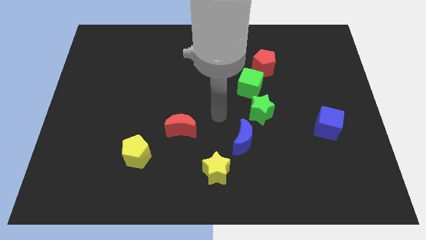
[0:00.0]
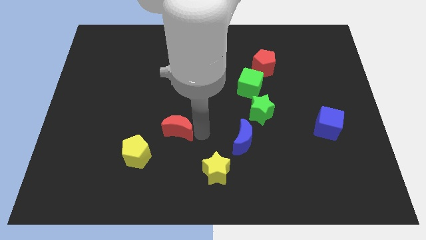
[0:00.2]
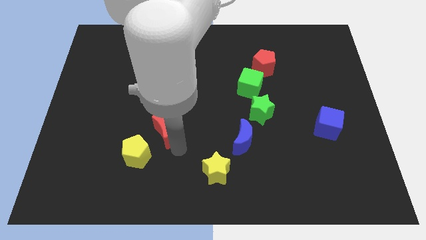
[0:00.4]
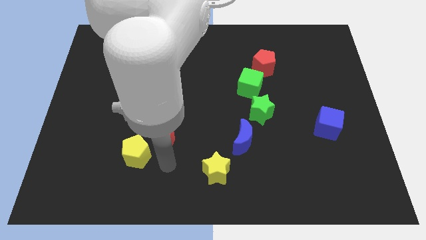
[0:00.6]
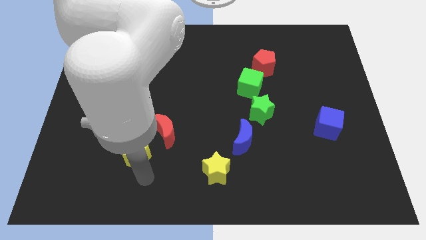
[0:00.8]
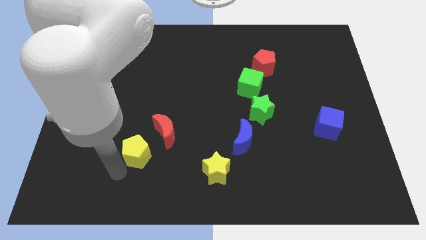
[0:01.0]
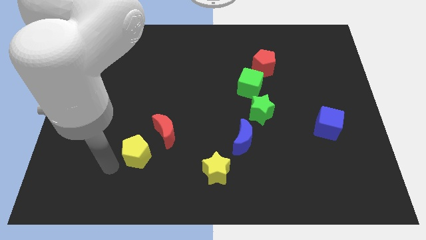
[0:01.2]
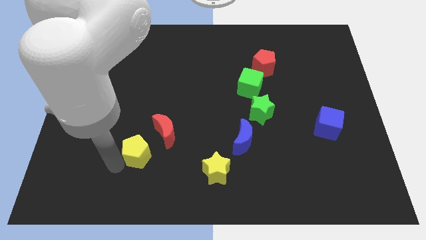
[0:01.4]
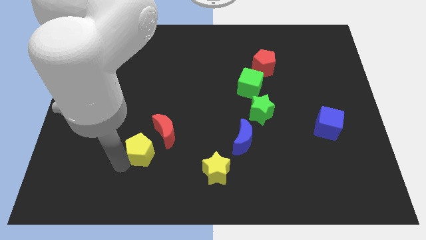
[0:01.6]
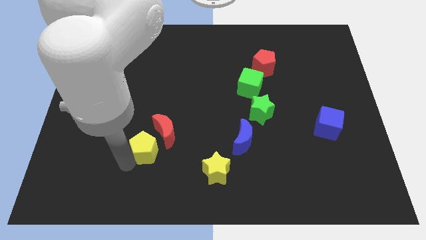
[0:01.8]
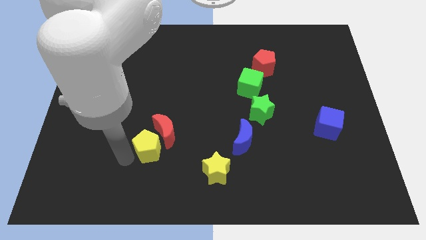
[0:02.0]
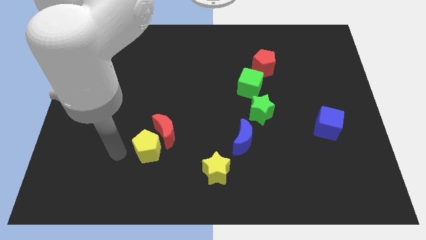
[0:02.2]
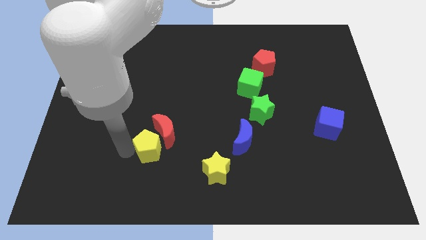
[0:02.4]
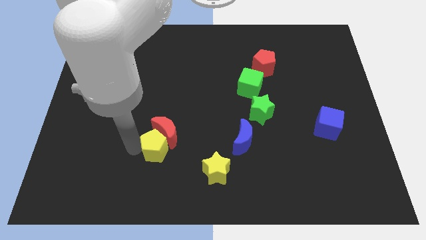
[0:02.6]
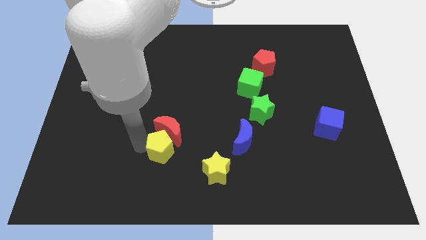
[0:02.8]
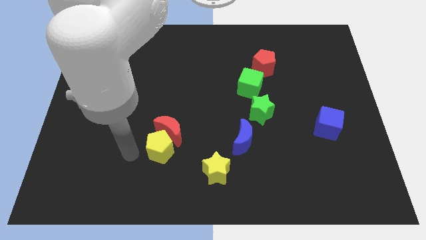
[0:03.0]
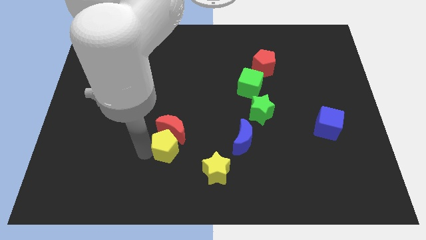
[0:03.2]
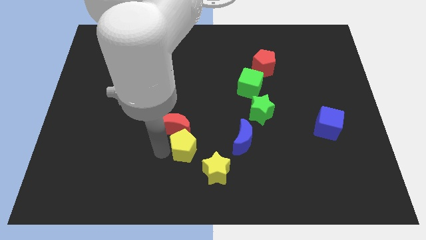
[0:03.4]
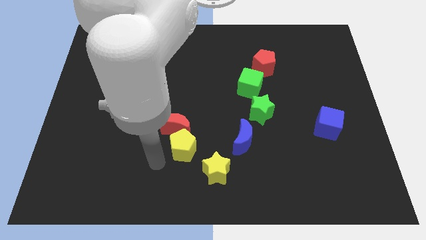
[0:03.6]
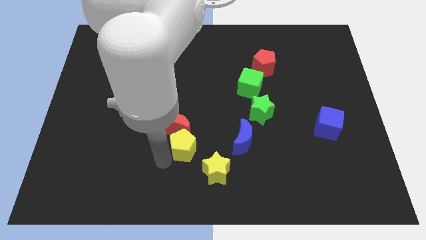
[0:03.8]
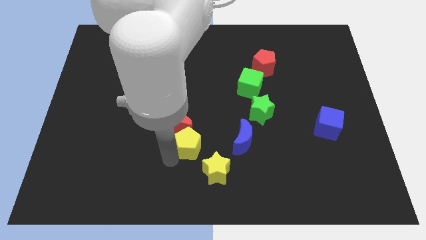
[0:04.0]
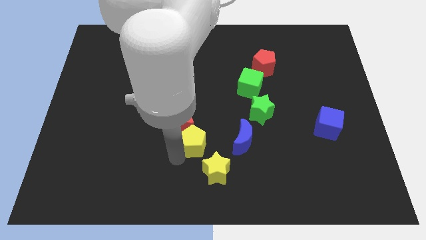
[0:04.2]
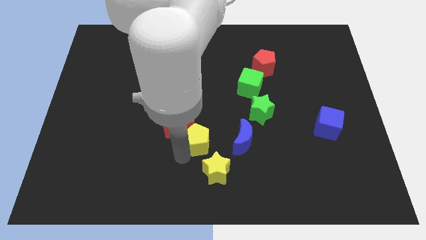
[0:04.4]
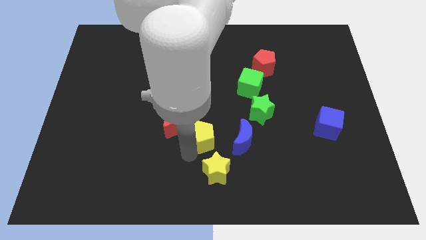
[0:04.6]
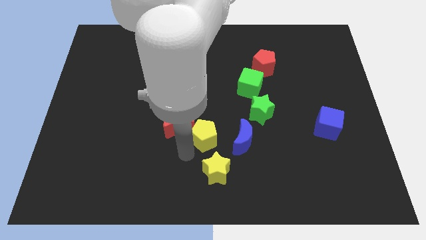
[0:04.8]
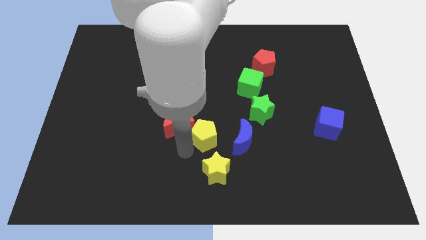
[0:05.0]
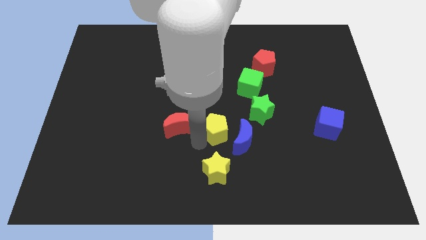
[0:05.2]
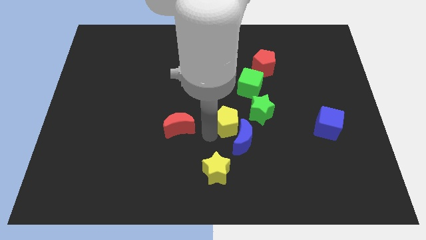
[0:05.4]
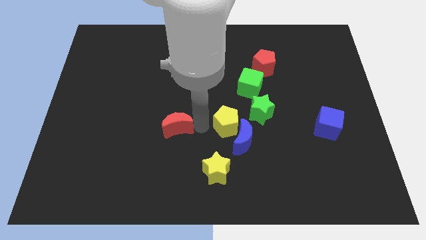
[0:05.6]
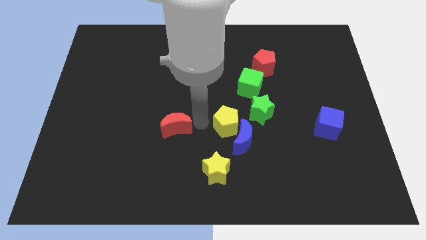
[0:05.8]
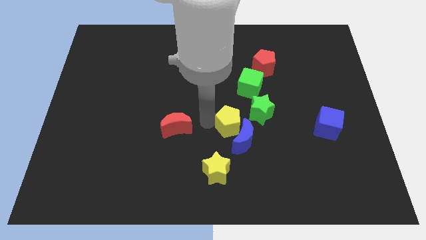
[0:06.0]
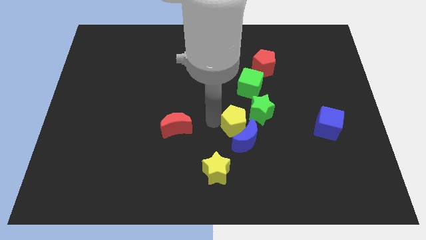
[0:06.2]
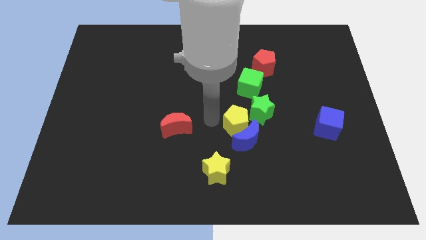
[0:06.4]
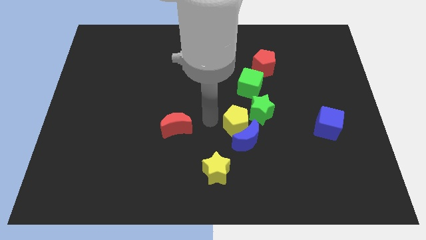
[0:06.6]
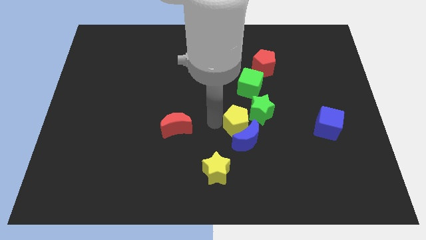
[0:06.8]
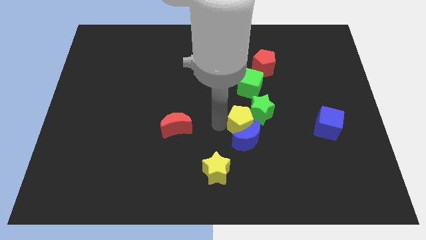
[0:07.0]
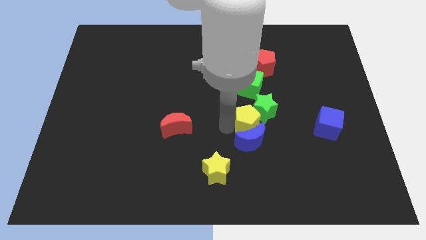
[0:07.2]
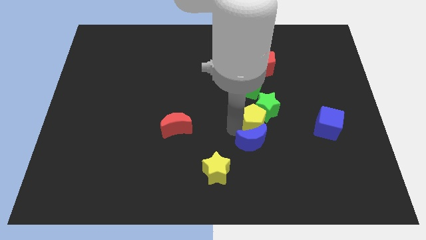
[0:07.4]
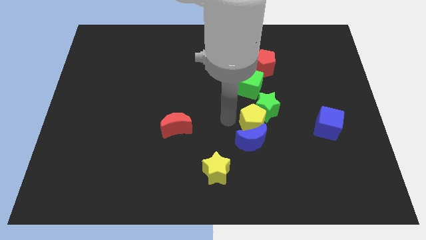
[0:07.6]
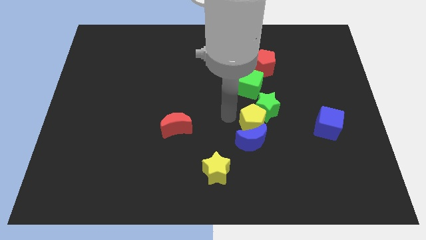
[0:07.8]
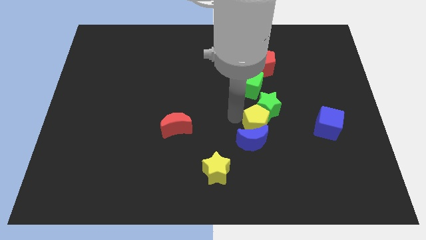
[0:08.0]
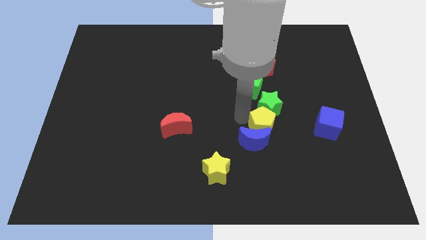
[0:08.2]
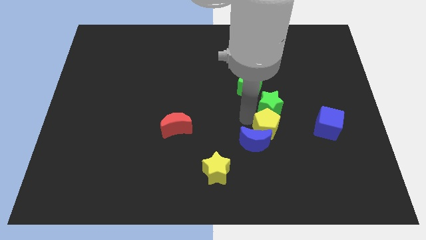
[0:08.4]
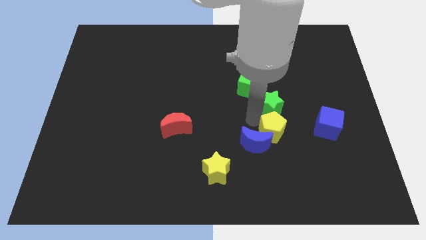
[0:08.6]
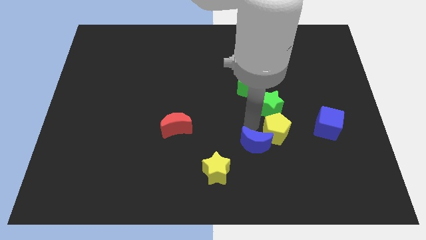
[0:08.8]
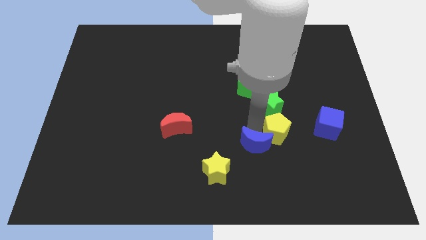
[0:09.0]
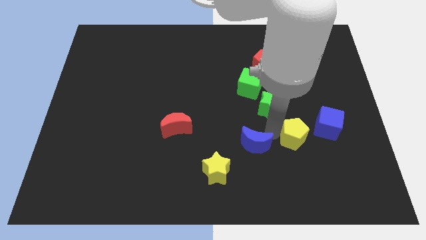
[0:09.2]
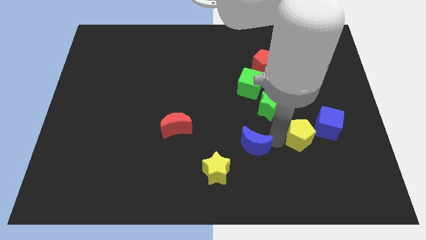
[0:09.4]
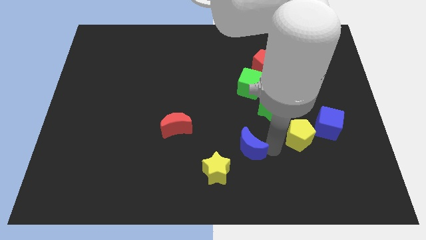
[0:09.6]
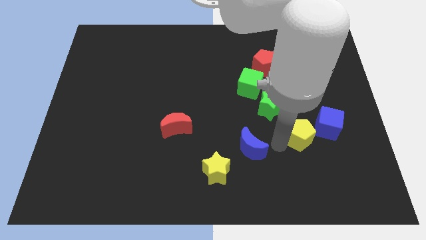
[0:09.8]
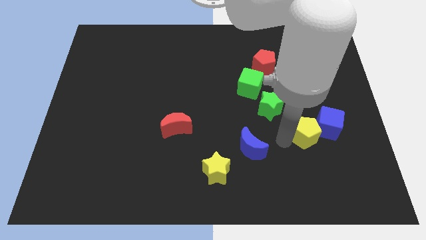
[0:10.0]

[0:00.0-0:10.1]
put the yellow pentagon close to the blue cube

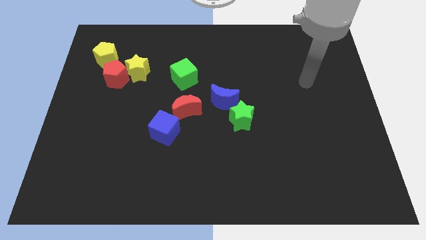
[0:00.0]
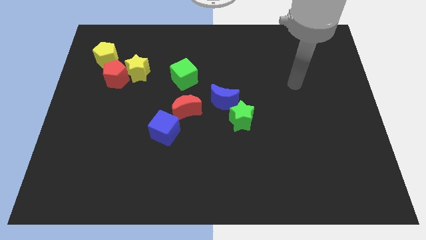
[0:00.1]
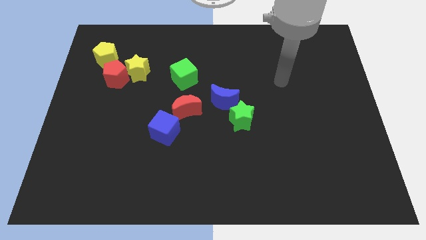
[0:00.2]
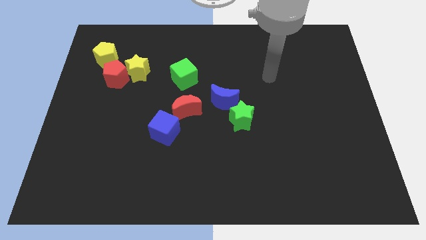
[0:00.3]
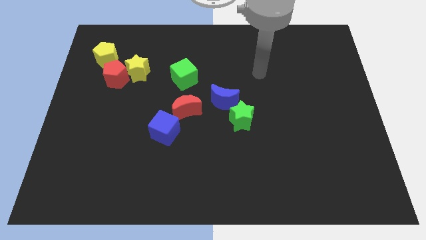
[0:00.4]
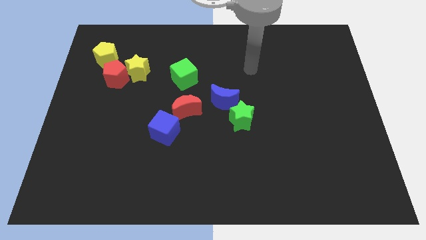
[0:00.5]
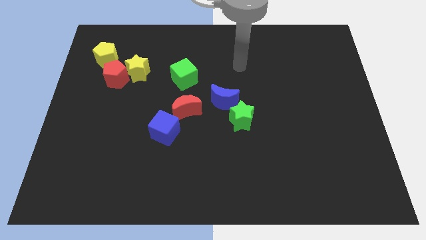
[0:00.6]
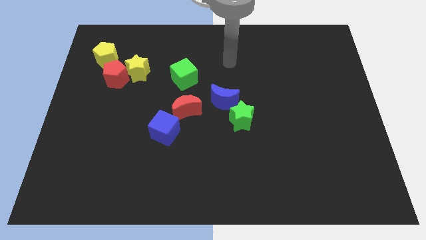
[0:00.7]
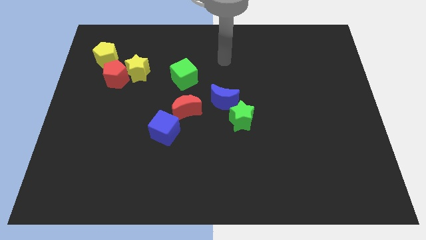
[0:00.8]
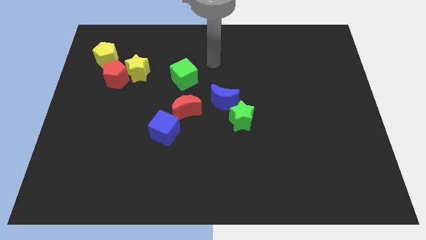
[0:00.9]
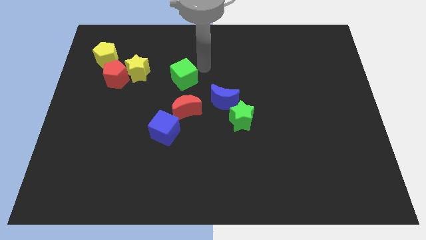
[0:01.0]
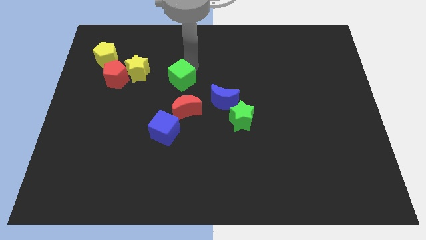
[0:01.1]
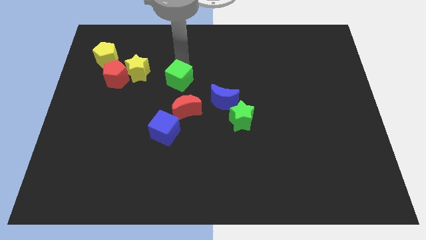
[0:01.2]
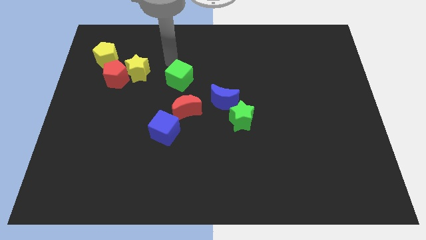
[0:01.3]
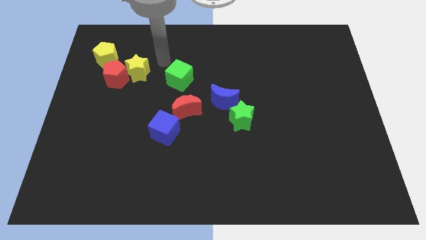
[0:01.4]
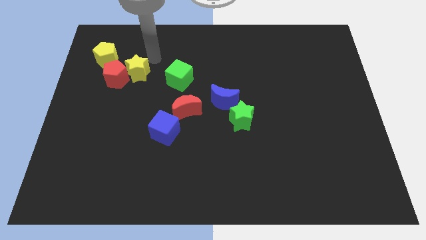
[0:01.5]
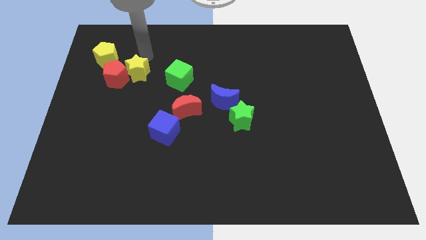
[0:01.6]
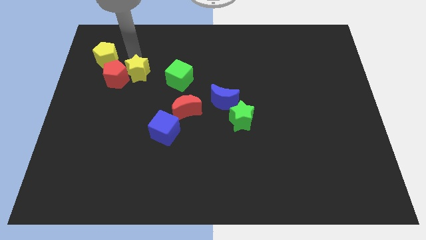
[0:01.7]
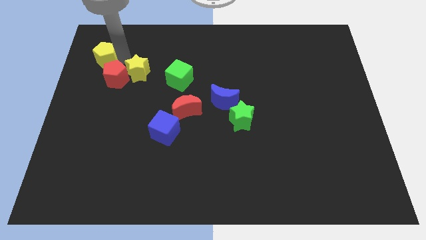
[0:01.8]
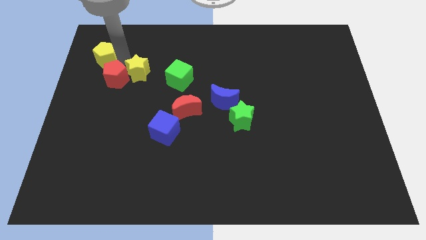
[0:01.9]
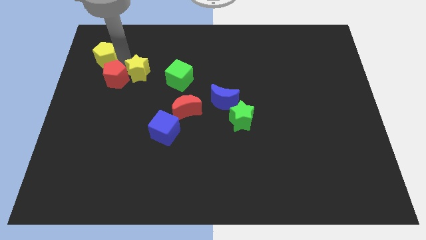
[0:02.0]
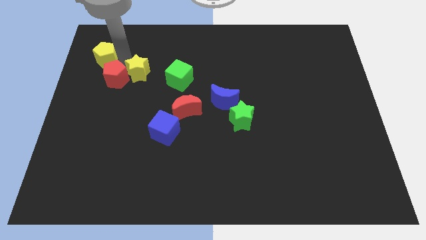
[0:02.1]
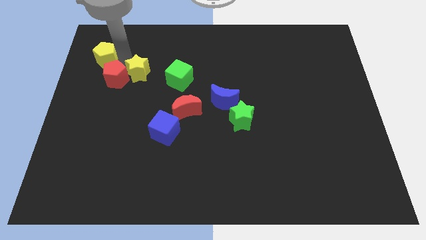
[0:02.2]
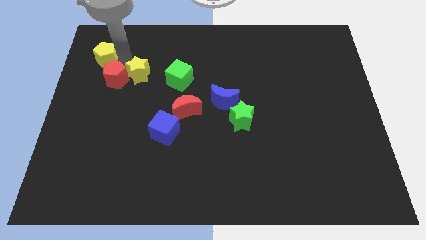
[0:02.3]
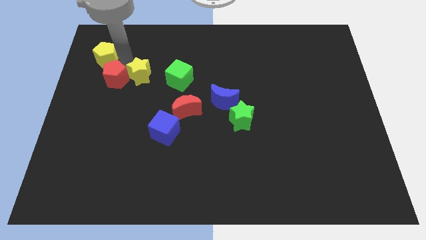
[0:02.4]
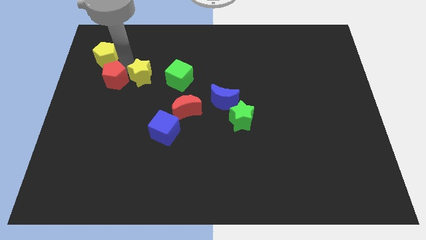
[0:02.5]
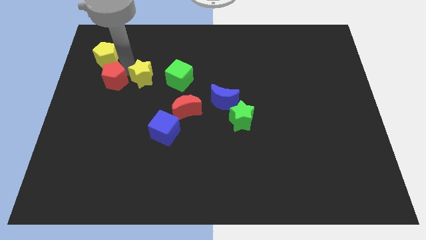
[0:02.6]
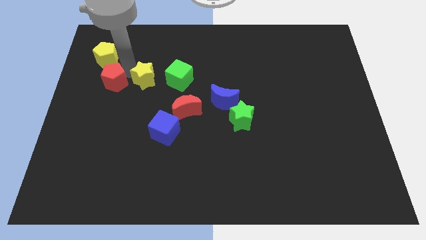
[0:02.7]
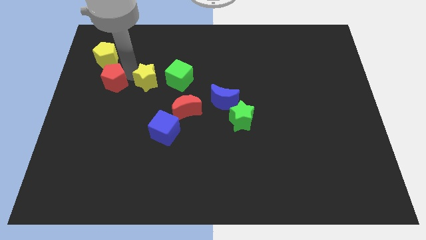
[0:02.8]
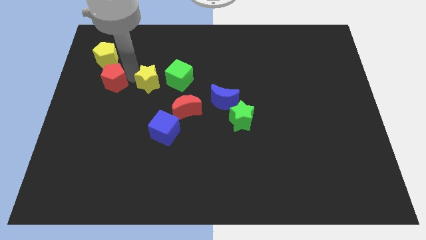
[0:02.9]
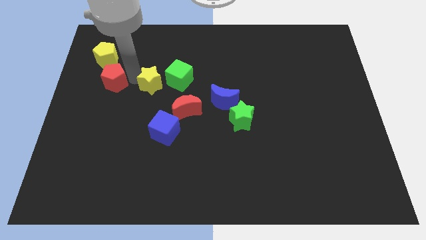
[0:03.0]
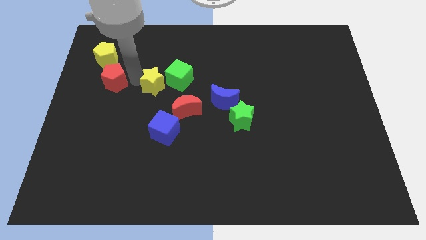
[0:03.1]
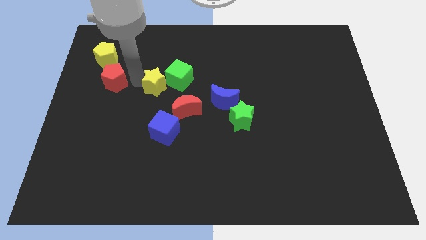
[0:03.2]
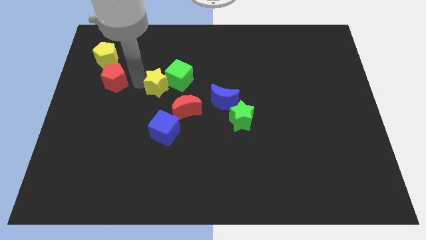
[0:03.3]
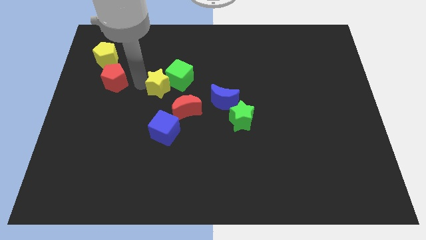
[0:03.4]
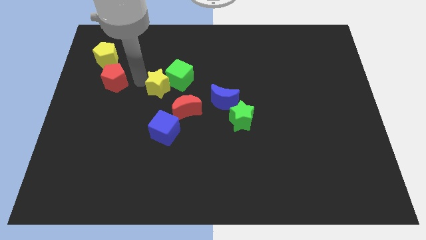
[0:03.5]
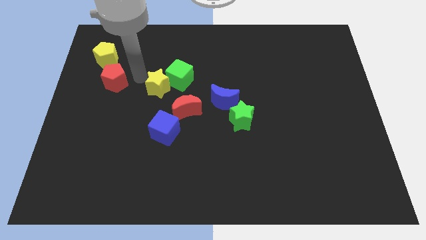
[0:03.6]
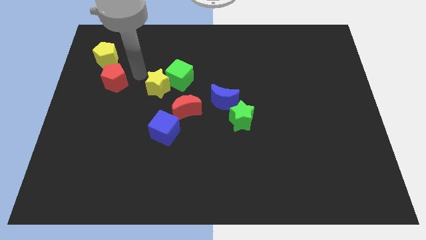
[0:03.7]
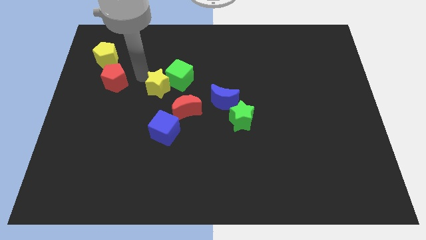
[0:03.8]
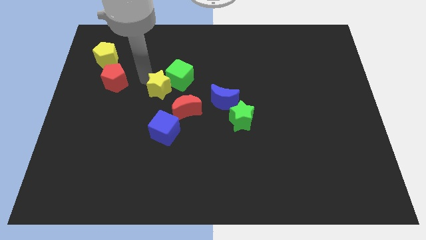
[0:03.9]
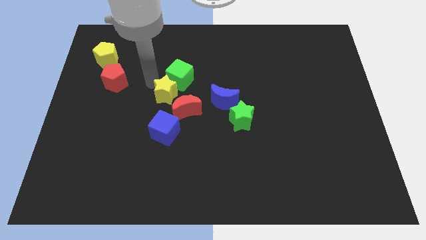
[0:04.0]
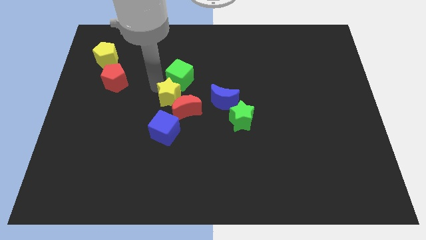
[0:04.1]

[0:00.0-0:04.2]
slide the yellow star to the red moon
